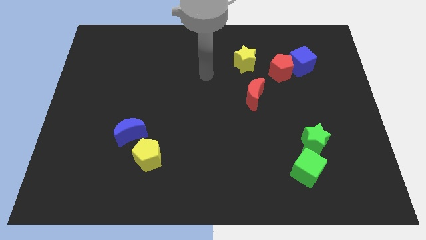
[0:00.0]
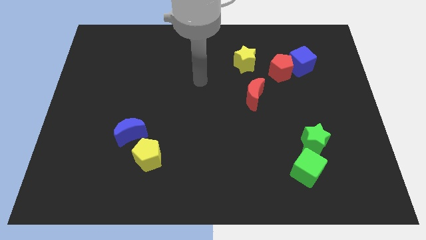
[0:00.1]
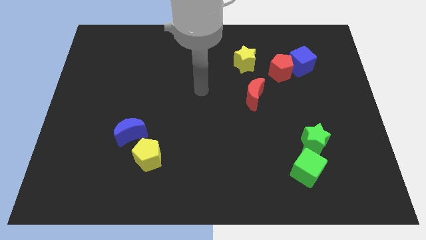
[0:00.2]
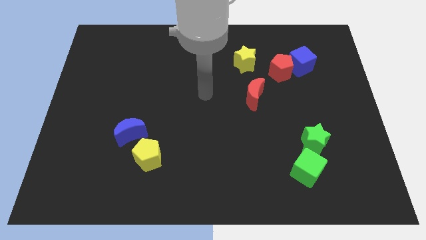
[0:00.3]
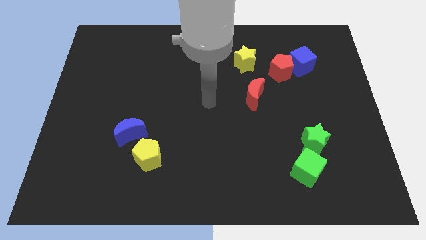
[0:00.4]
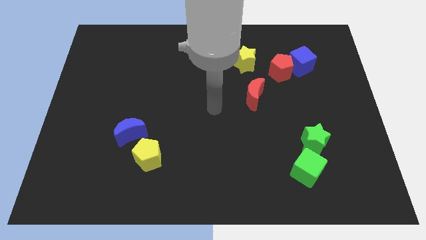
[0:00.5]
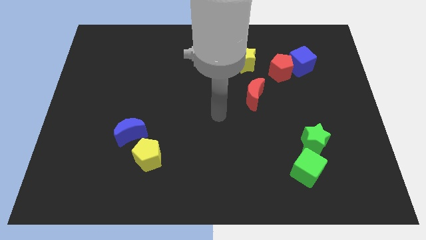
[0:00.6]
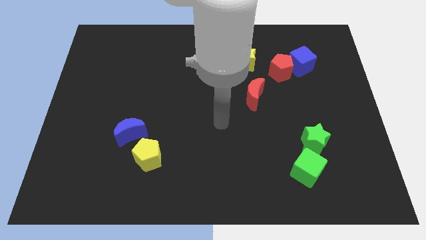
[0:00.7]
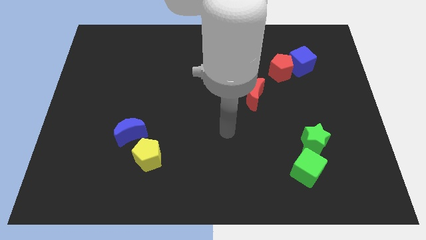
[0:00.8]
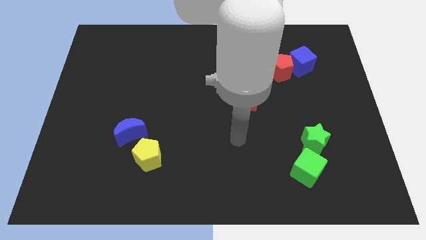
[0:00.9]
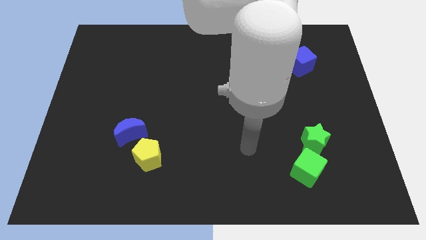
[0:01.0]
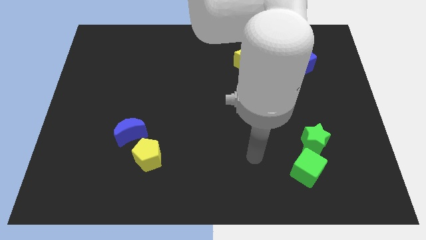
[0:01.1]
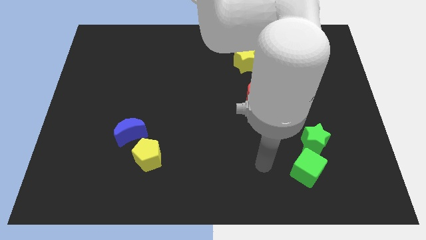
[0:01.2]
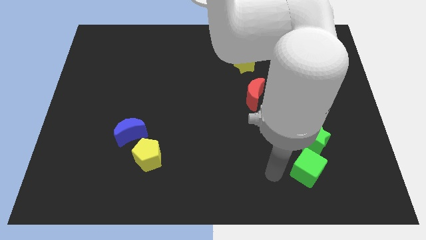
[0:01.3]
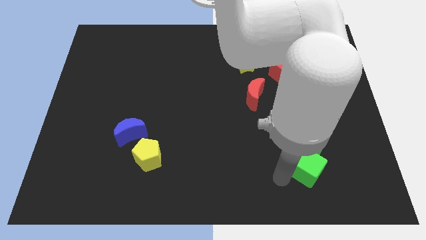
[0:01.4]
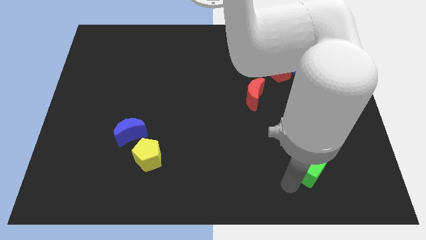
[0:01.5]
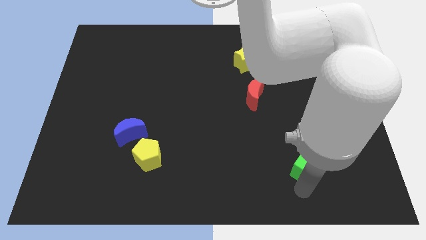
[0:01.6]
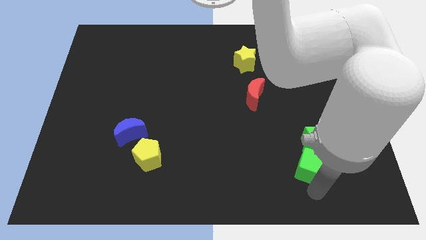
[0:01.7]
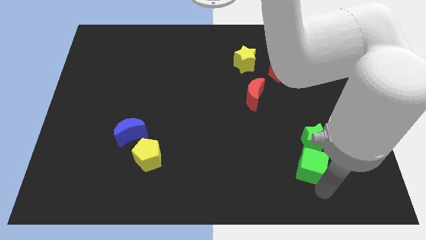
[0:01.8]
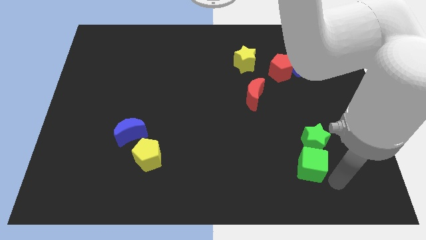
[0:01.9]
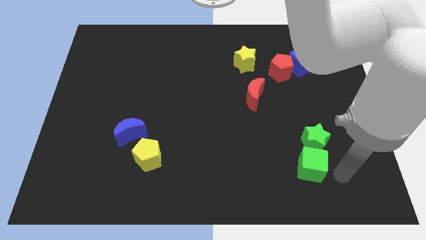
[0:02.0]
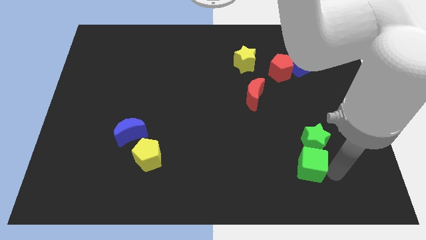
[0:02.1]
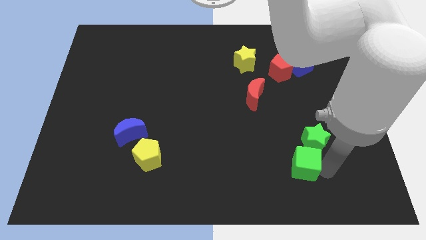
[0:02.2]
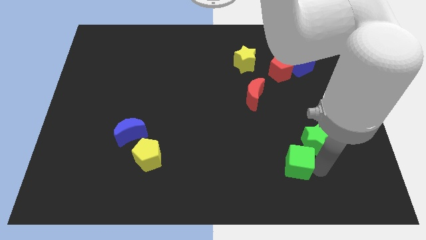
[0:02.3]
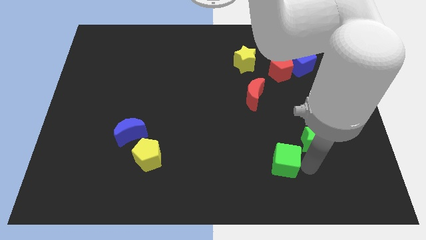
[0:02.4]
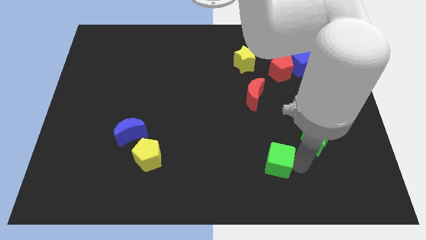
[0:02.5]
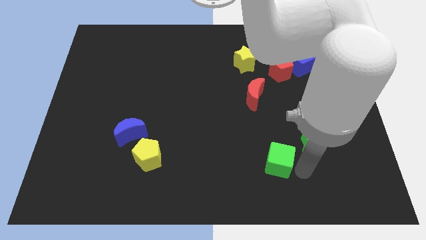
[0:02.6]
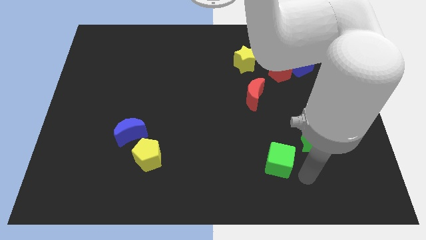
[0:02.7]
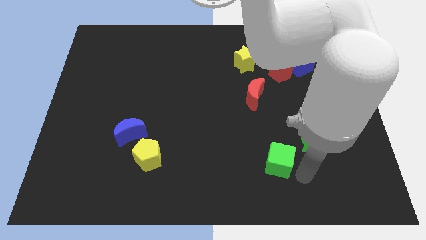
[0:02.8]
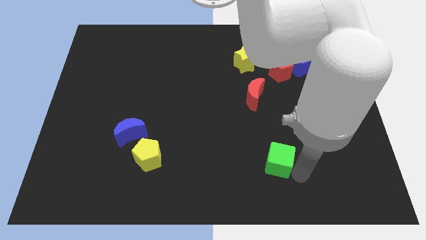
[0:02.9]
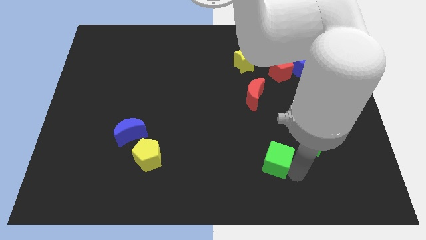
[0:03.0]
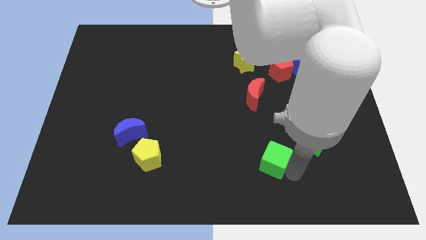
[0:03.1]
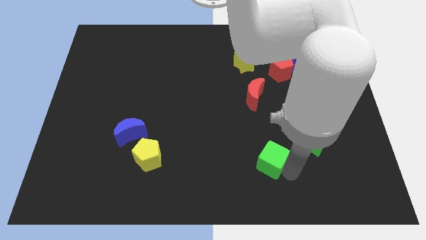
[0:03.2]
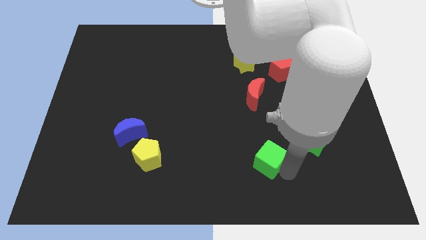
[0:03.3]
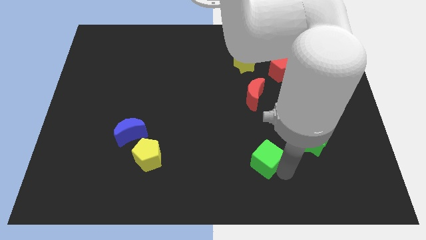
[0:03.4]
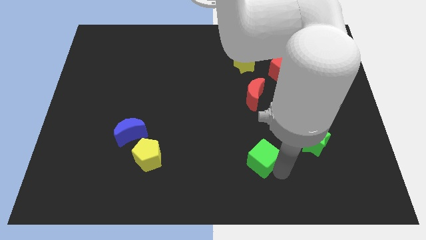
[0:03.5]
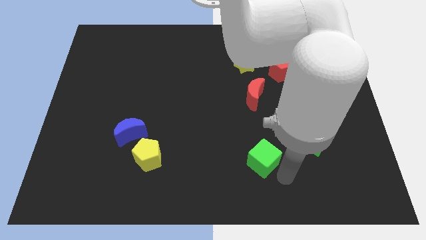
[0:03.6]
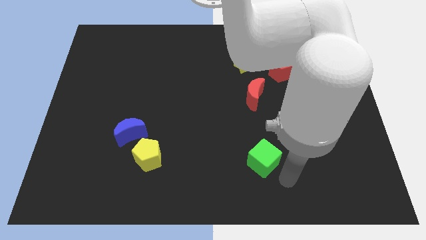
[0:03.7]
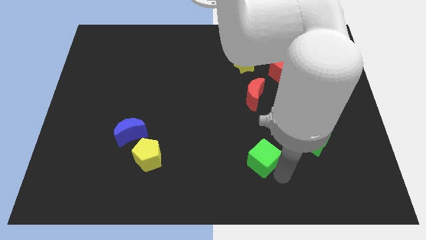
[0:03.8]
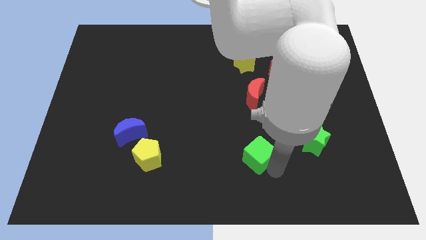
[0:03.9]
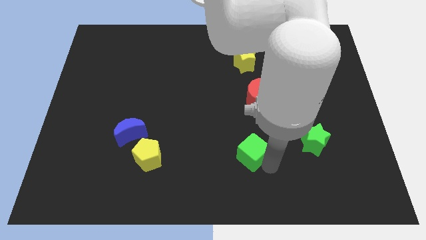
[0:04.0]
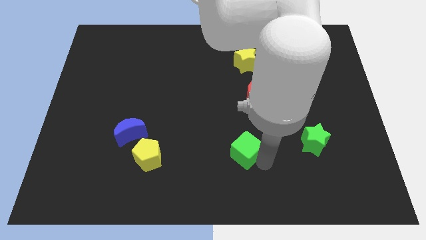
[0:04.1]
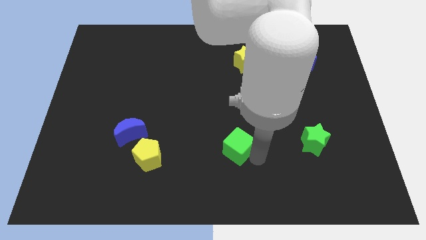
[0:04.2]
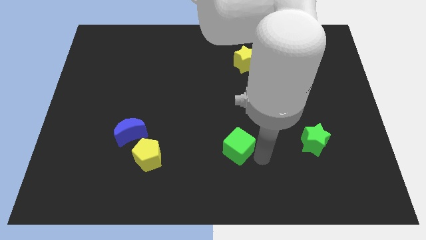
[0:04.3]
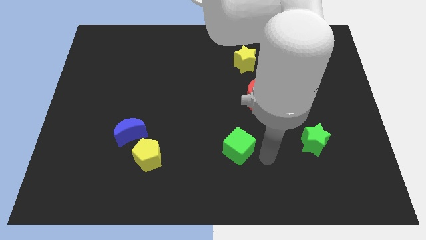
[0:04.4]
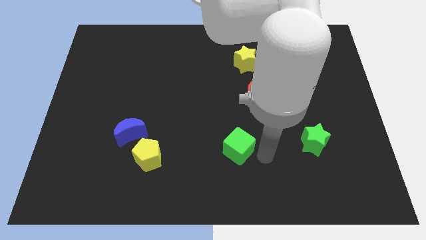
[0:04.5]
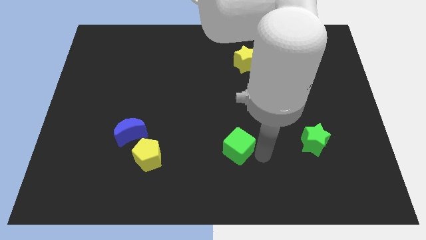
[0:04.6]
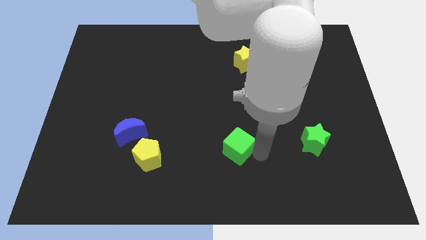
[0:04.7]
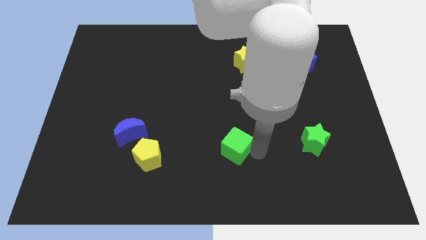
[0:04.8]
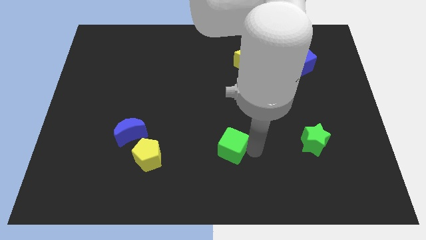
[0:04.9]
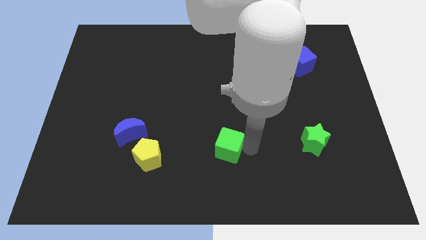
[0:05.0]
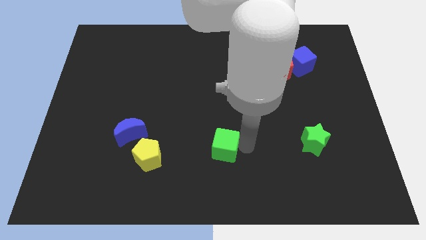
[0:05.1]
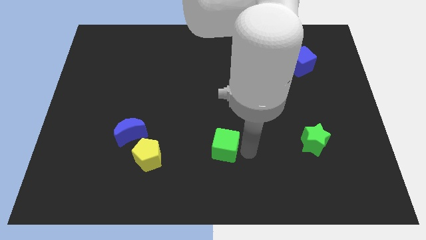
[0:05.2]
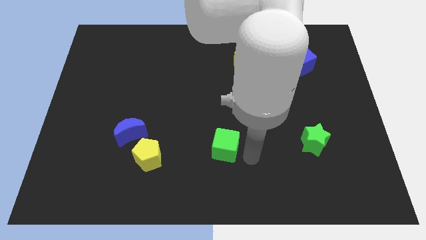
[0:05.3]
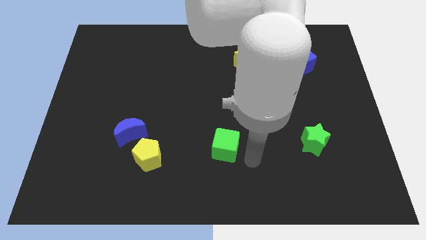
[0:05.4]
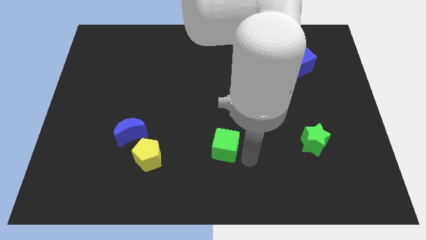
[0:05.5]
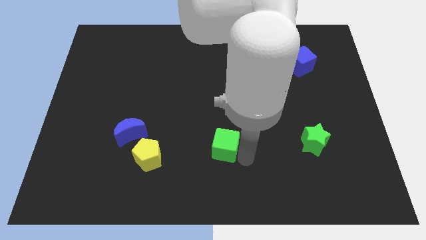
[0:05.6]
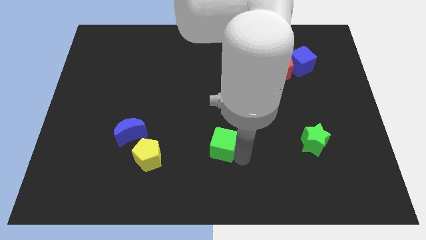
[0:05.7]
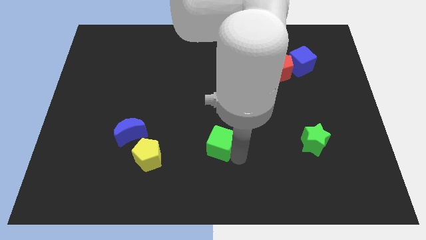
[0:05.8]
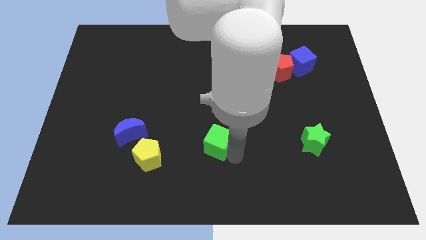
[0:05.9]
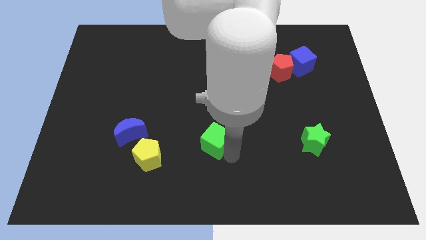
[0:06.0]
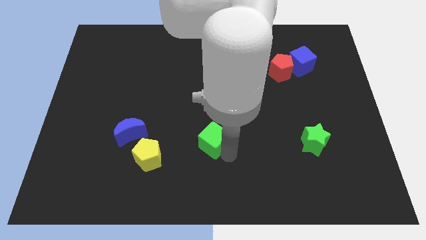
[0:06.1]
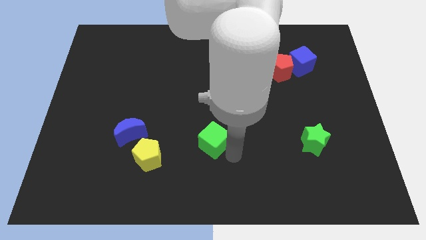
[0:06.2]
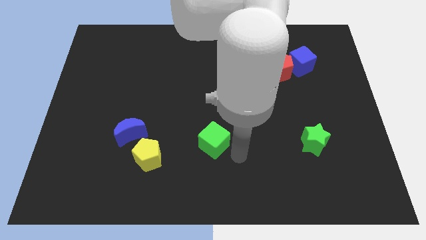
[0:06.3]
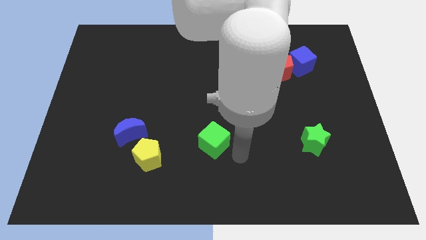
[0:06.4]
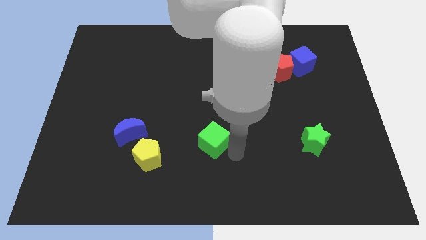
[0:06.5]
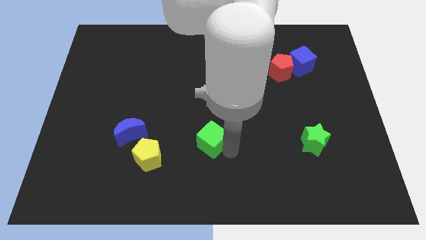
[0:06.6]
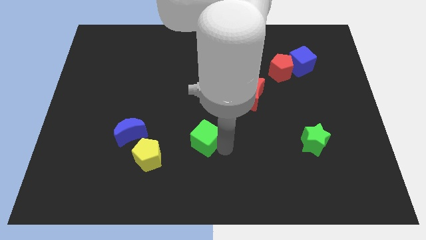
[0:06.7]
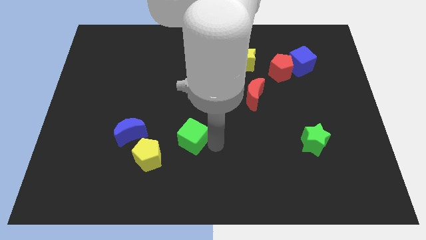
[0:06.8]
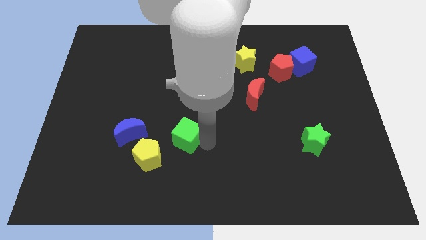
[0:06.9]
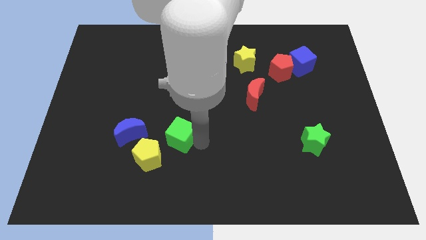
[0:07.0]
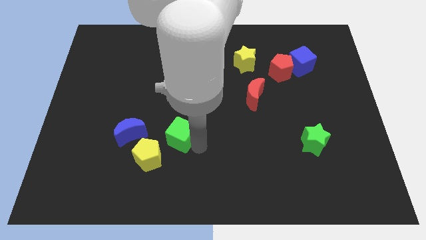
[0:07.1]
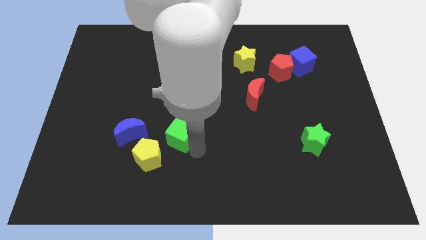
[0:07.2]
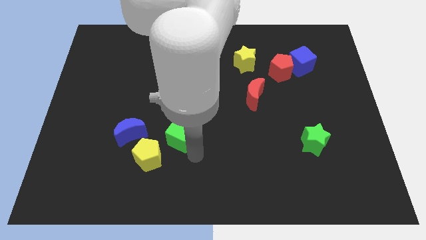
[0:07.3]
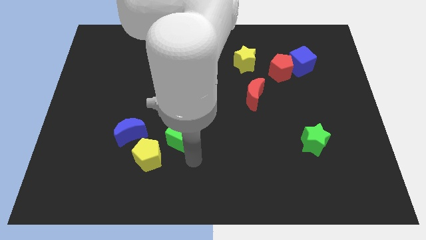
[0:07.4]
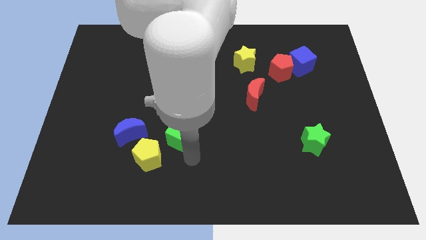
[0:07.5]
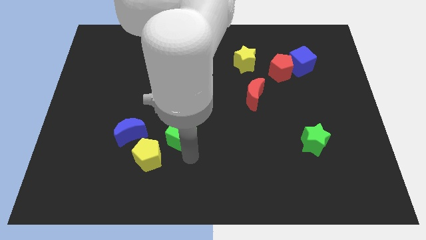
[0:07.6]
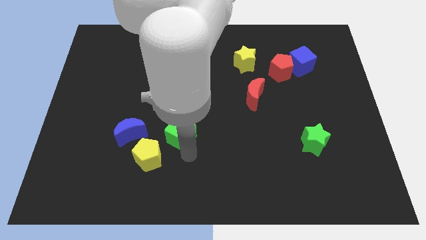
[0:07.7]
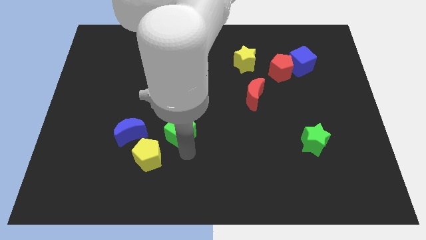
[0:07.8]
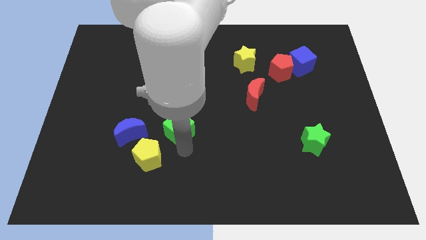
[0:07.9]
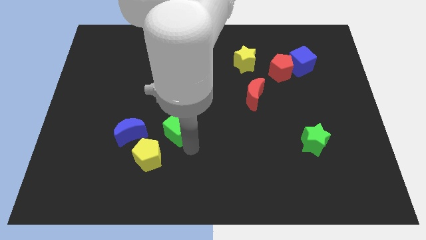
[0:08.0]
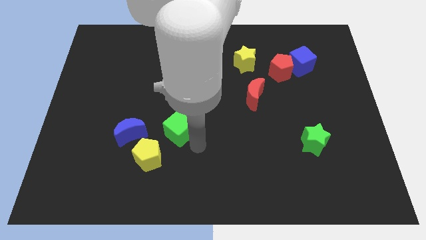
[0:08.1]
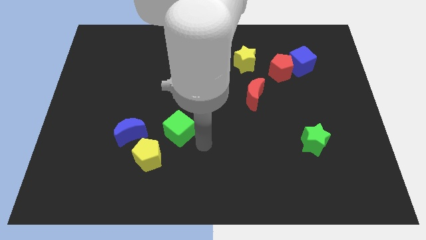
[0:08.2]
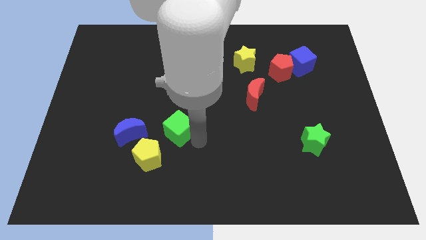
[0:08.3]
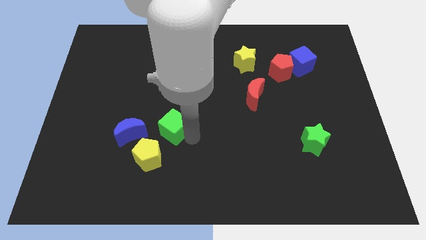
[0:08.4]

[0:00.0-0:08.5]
put the green cube to the top side of the yellow pentagon
